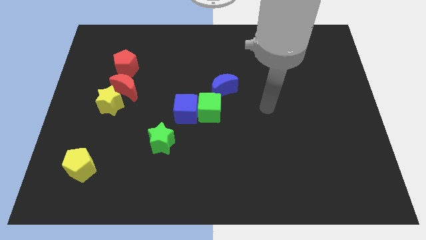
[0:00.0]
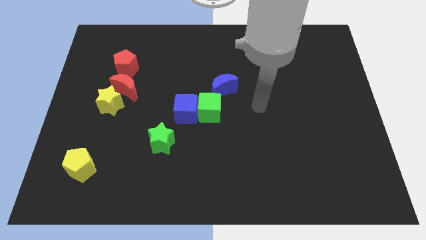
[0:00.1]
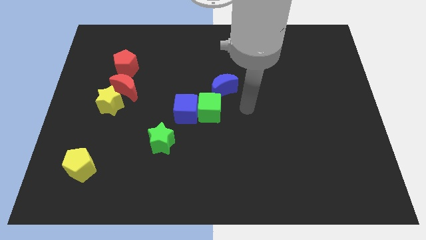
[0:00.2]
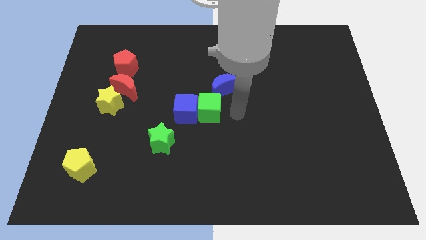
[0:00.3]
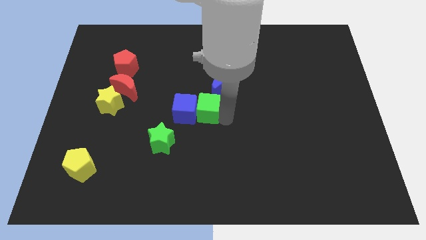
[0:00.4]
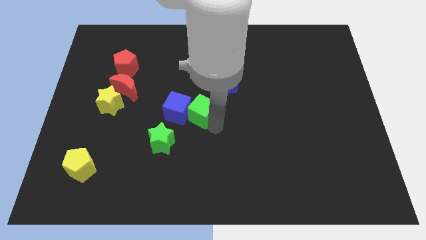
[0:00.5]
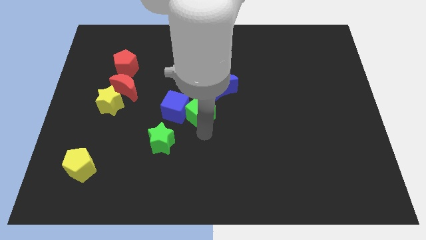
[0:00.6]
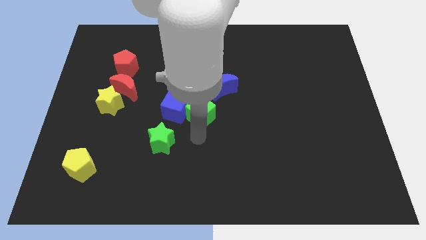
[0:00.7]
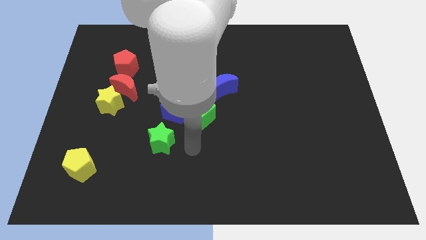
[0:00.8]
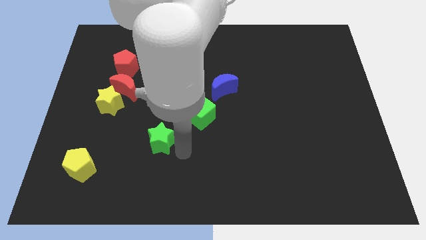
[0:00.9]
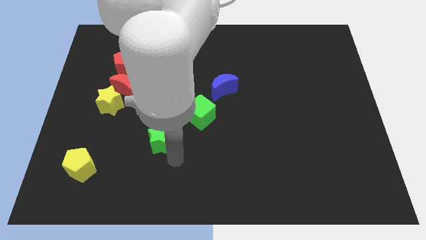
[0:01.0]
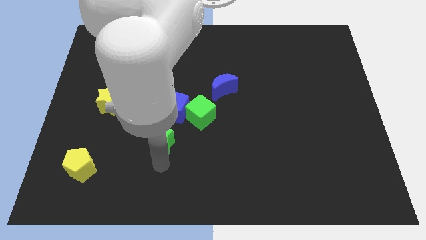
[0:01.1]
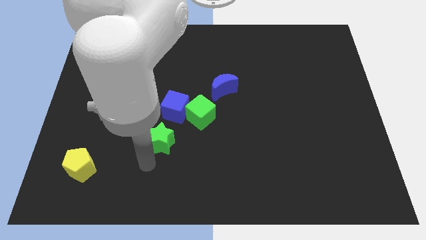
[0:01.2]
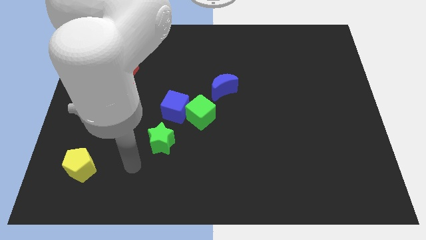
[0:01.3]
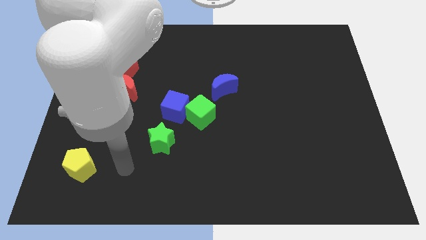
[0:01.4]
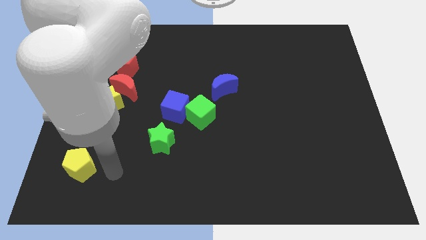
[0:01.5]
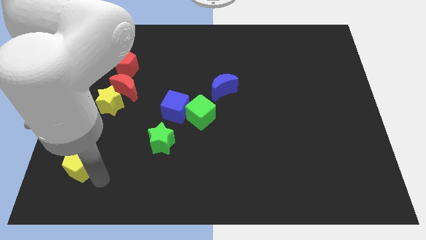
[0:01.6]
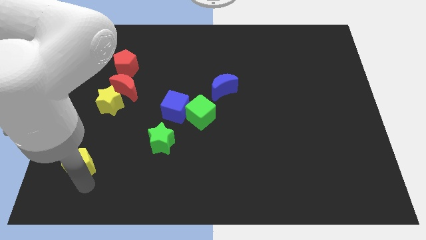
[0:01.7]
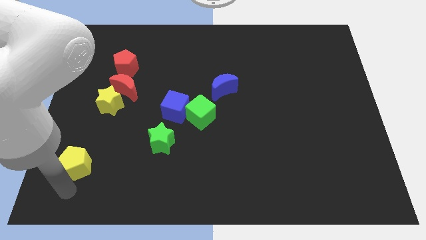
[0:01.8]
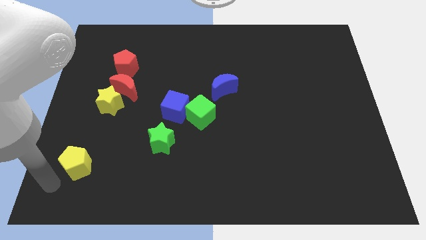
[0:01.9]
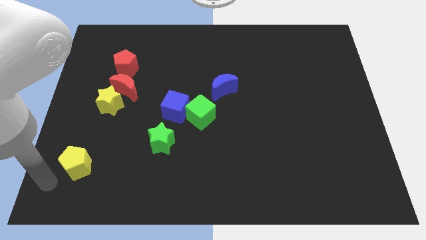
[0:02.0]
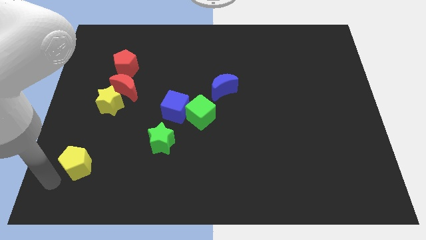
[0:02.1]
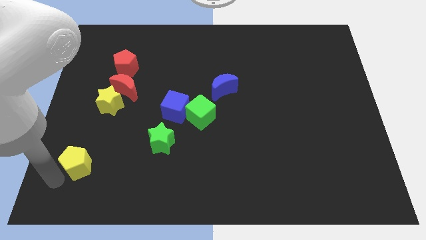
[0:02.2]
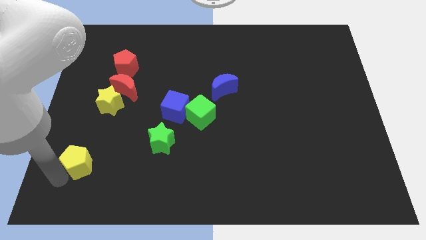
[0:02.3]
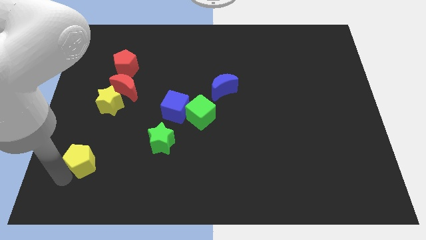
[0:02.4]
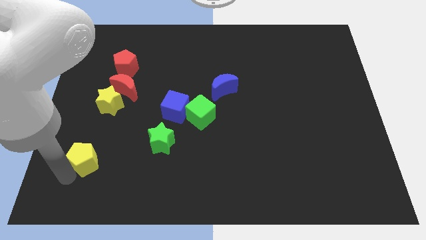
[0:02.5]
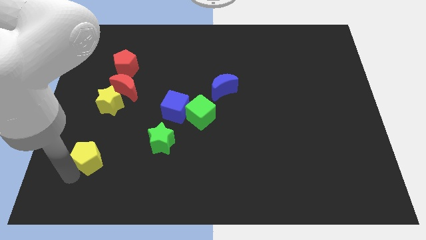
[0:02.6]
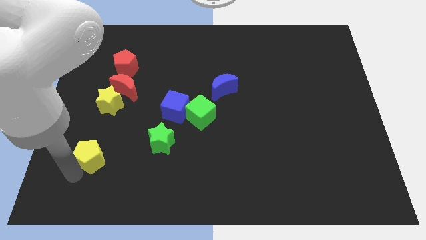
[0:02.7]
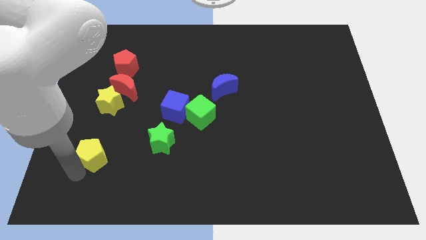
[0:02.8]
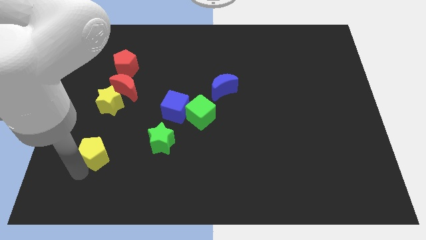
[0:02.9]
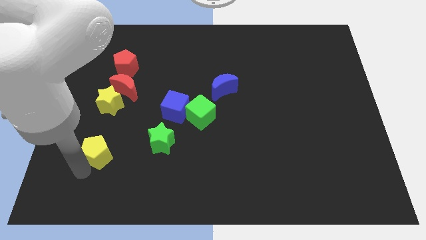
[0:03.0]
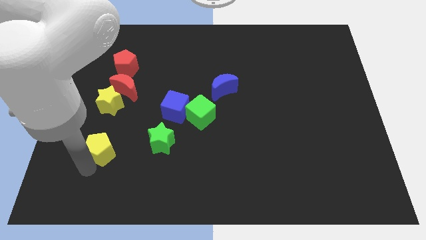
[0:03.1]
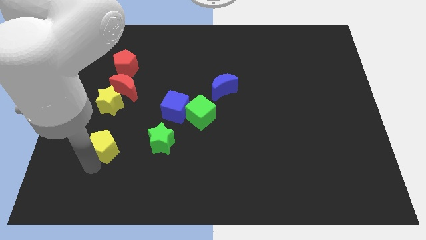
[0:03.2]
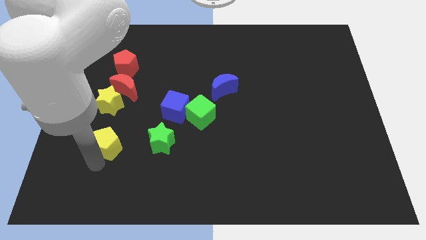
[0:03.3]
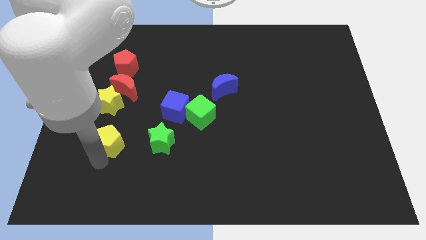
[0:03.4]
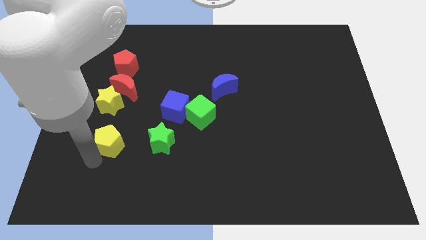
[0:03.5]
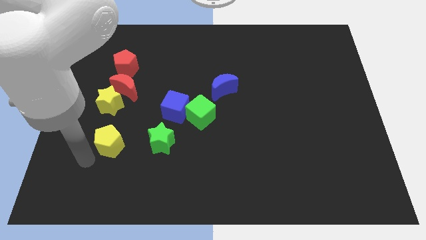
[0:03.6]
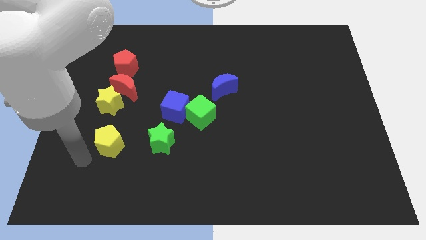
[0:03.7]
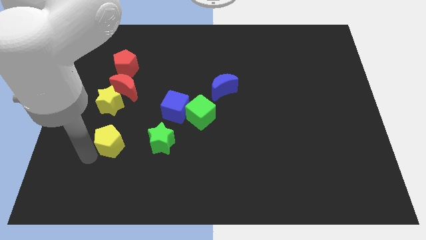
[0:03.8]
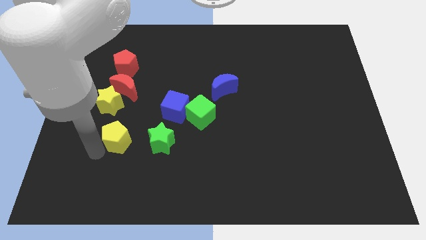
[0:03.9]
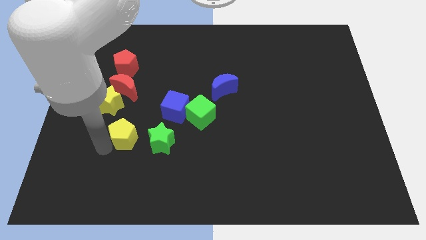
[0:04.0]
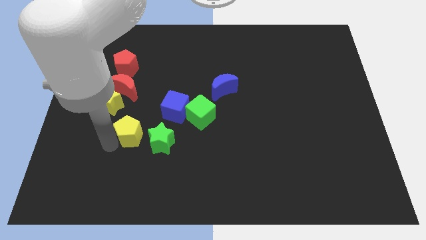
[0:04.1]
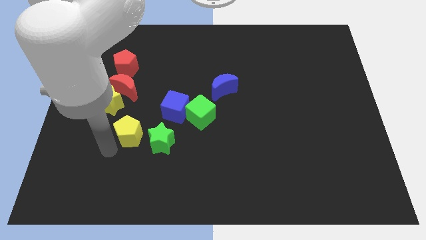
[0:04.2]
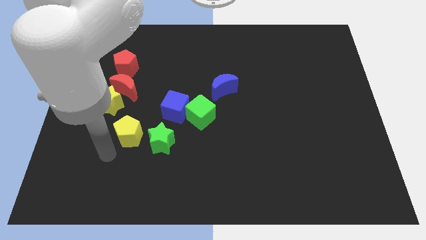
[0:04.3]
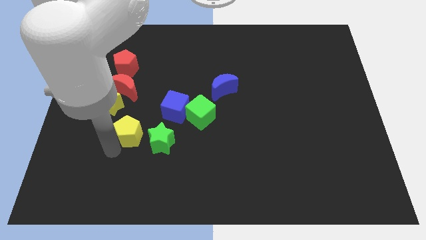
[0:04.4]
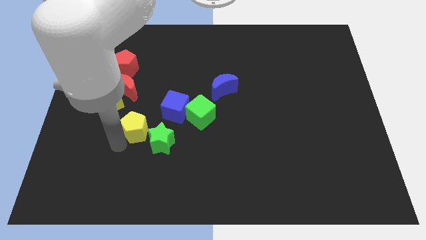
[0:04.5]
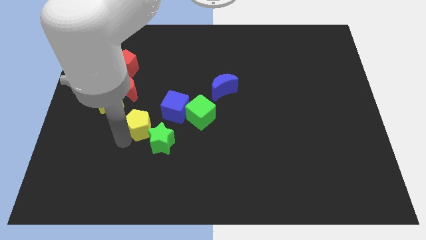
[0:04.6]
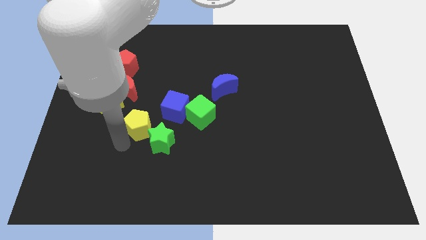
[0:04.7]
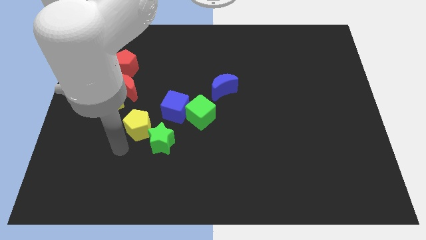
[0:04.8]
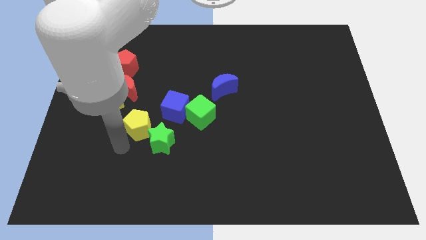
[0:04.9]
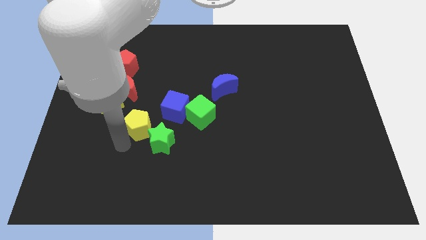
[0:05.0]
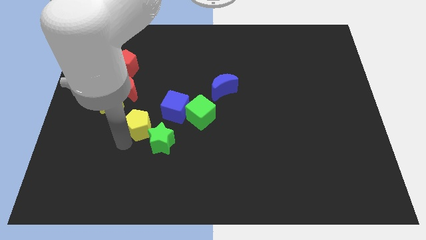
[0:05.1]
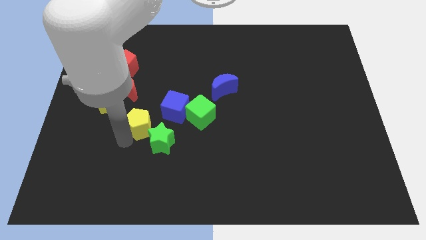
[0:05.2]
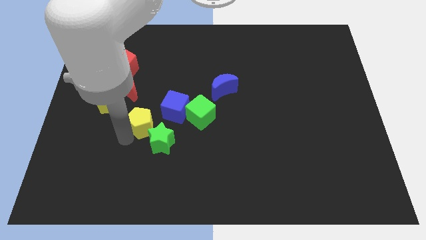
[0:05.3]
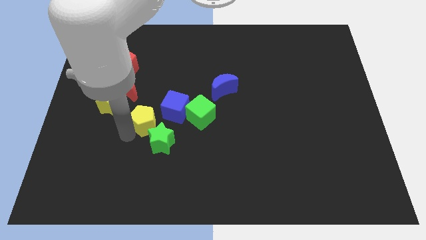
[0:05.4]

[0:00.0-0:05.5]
move the yellow pentagon above the green star

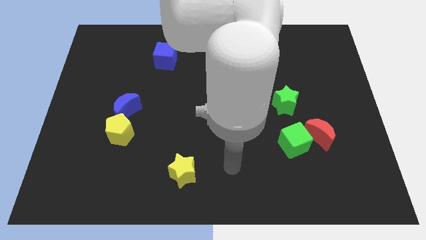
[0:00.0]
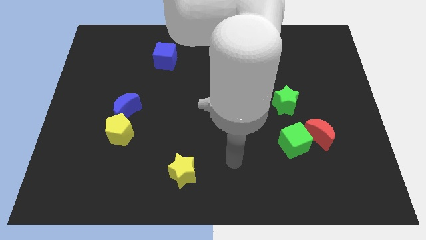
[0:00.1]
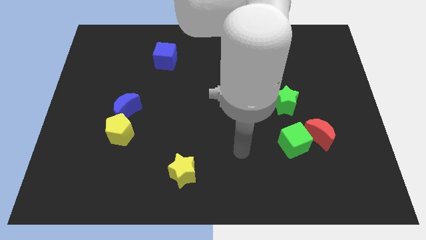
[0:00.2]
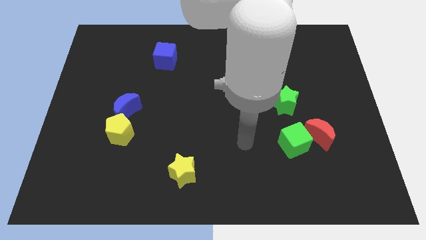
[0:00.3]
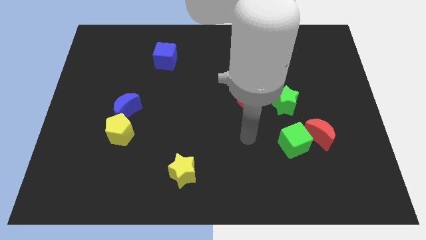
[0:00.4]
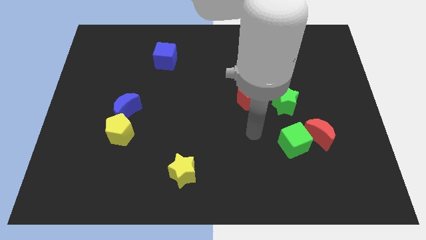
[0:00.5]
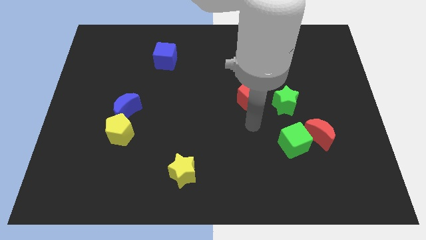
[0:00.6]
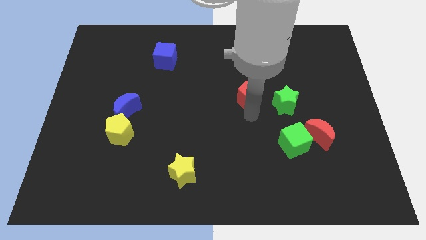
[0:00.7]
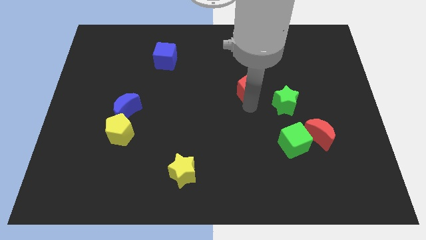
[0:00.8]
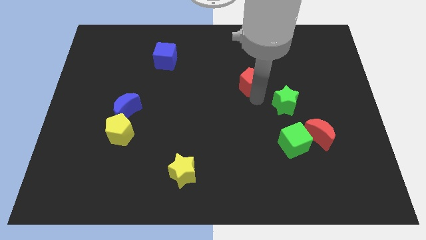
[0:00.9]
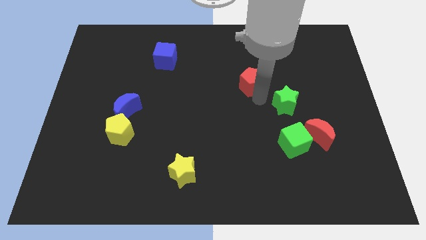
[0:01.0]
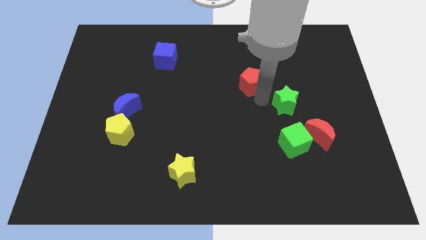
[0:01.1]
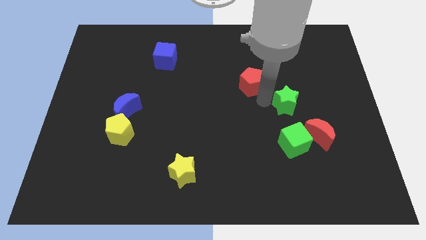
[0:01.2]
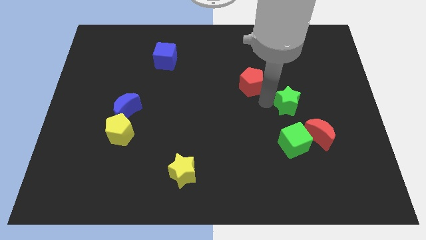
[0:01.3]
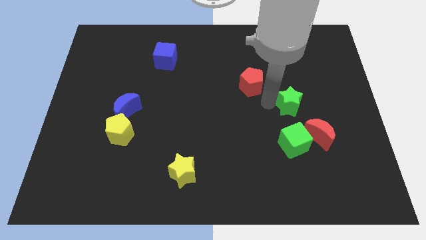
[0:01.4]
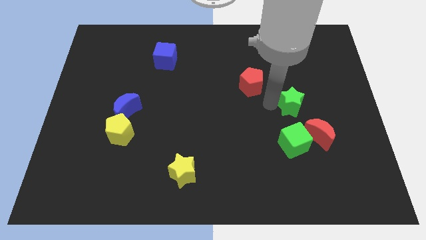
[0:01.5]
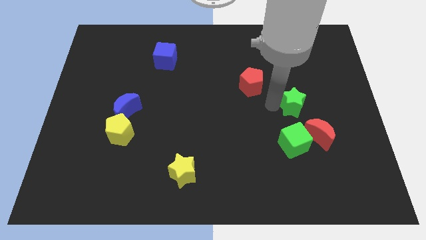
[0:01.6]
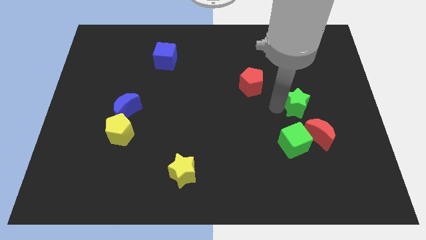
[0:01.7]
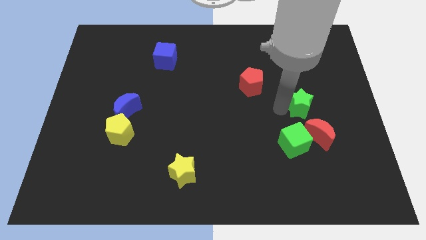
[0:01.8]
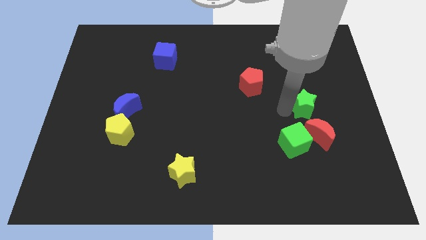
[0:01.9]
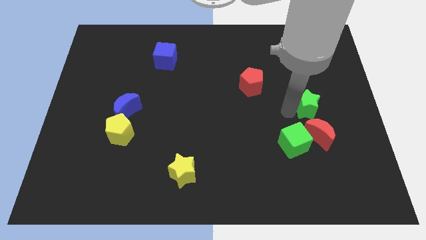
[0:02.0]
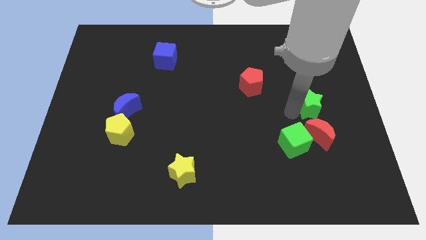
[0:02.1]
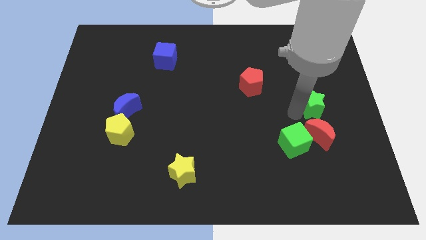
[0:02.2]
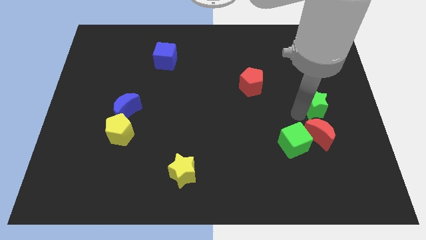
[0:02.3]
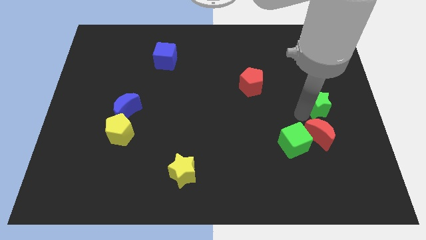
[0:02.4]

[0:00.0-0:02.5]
push the green star to the top right side of the red moon
